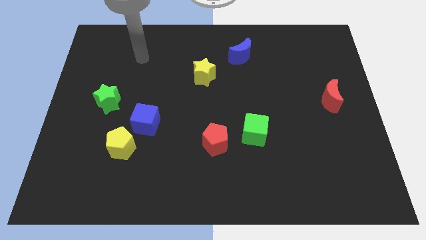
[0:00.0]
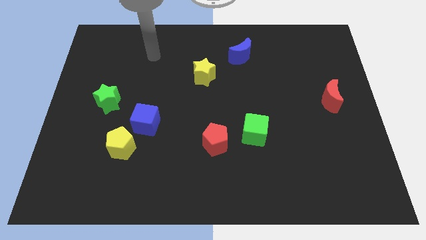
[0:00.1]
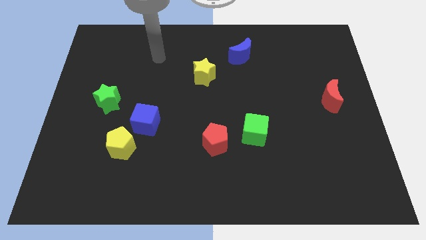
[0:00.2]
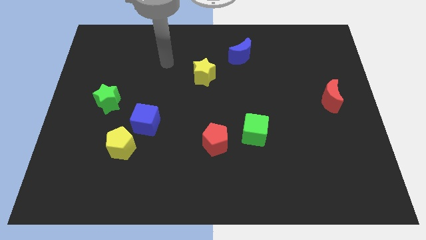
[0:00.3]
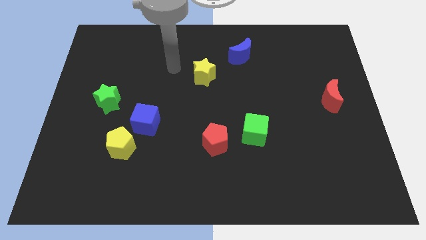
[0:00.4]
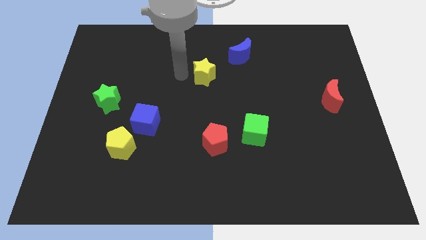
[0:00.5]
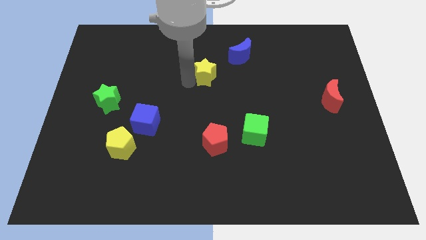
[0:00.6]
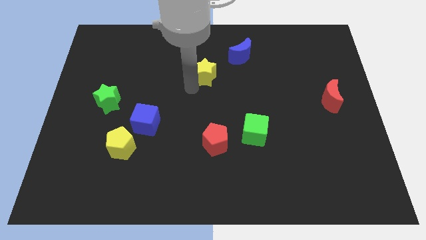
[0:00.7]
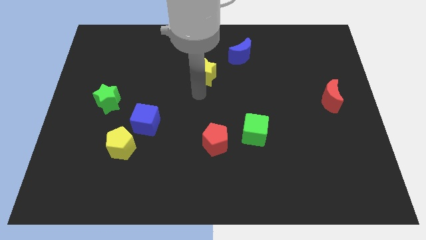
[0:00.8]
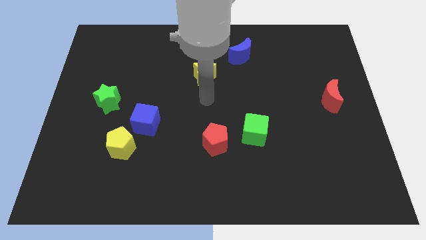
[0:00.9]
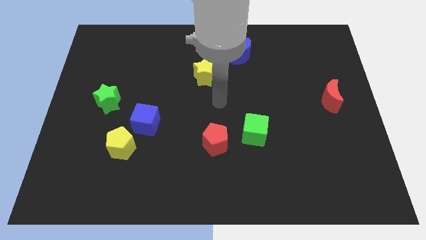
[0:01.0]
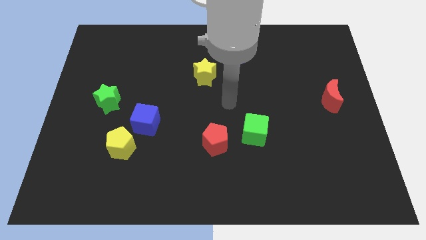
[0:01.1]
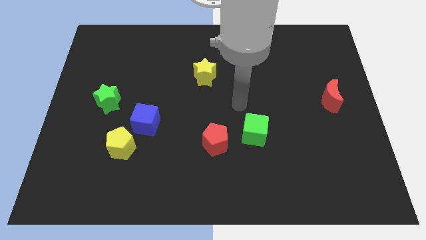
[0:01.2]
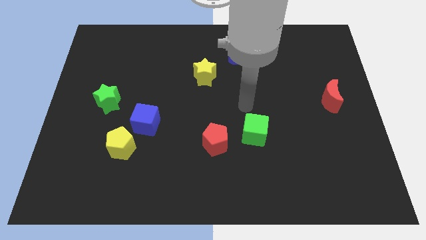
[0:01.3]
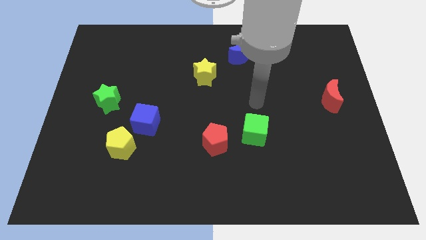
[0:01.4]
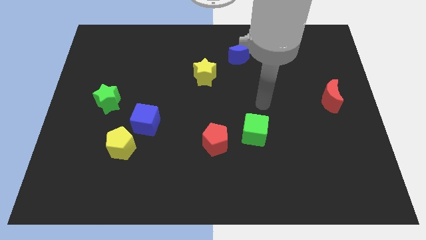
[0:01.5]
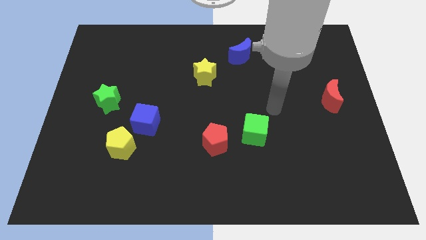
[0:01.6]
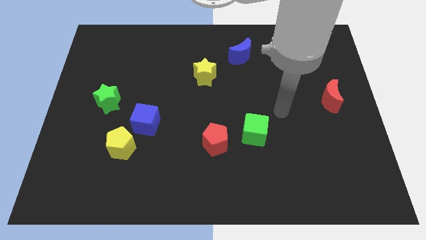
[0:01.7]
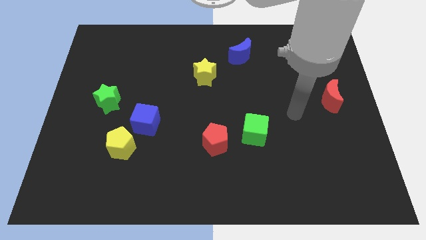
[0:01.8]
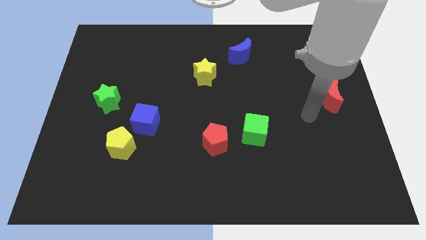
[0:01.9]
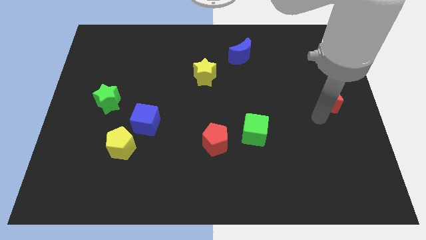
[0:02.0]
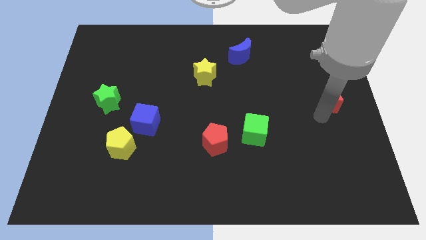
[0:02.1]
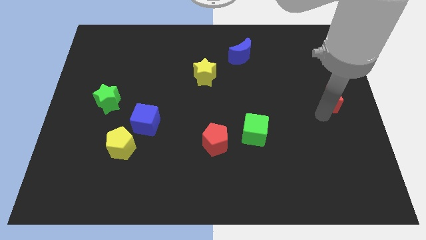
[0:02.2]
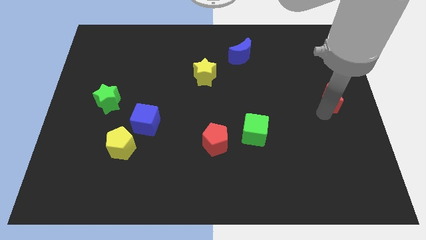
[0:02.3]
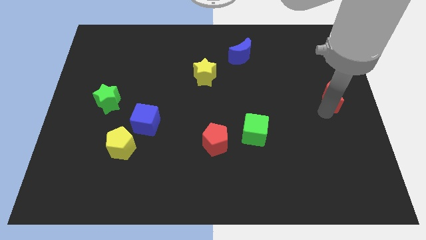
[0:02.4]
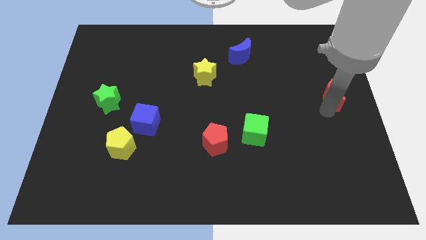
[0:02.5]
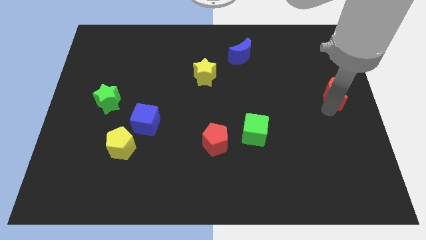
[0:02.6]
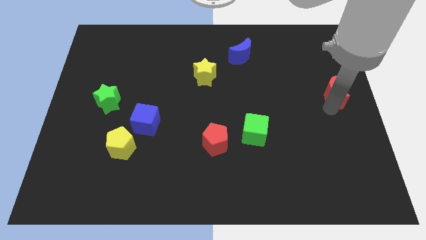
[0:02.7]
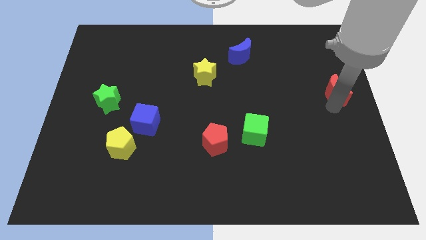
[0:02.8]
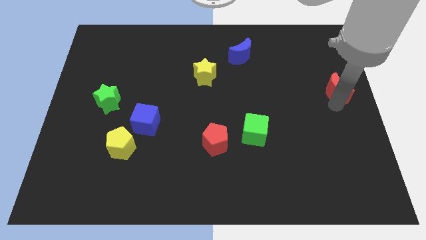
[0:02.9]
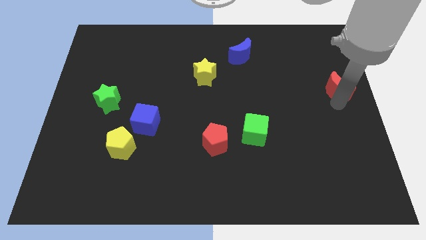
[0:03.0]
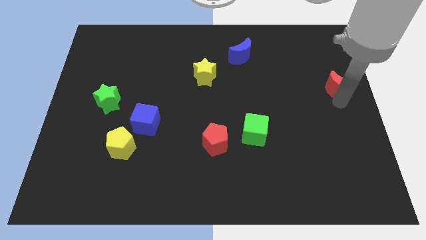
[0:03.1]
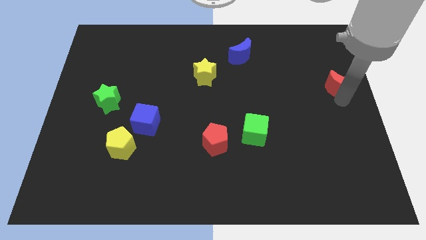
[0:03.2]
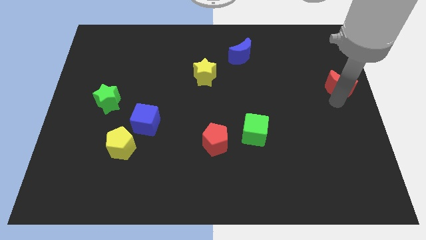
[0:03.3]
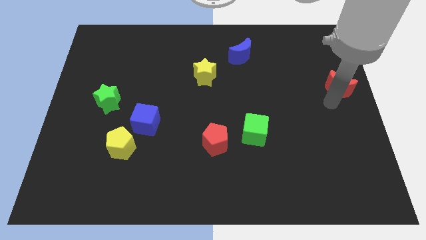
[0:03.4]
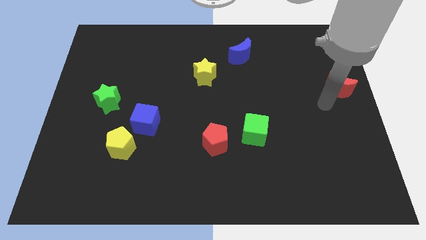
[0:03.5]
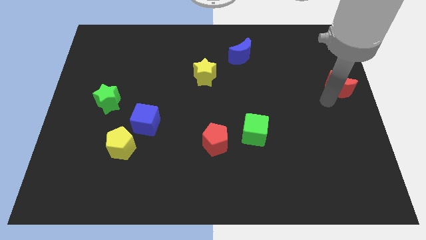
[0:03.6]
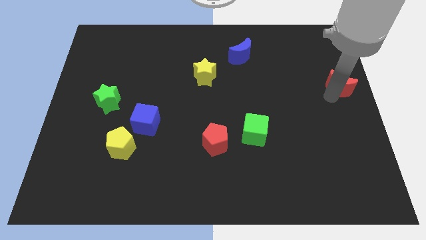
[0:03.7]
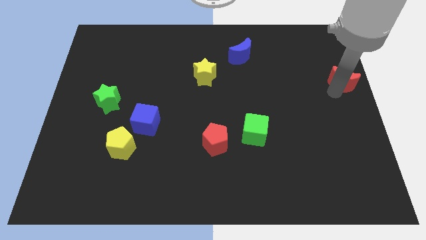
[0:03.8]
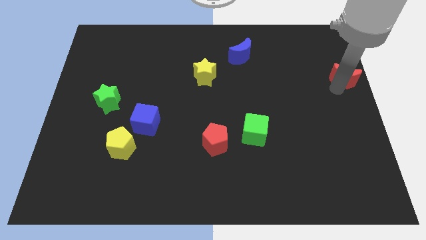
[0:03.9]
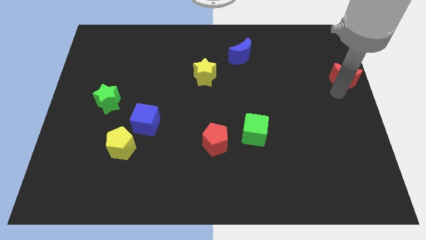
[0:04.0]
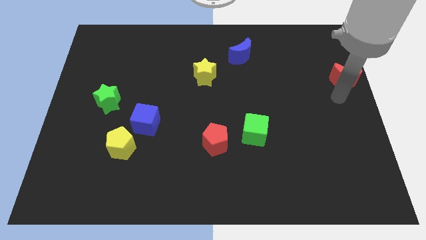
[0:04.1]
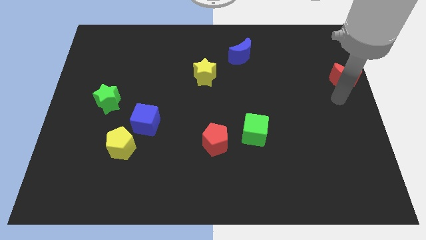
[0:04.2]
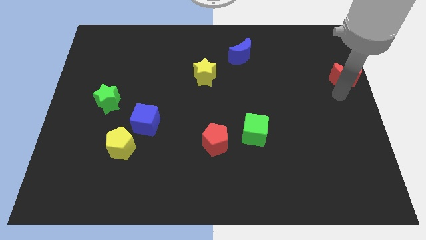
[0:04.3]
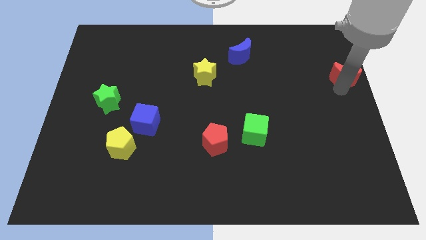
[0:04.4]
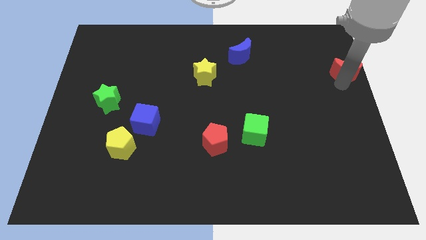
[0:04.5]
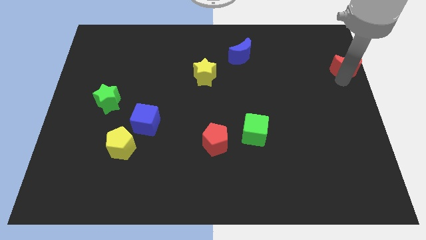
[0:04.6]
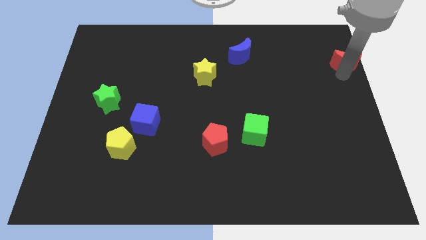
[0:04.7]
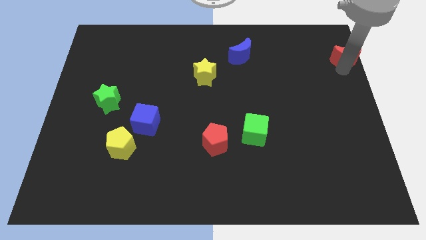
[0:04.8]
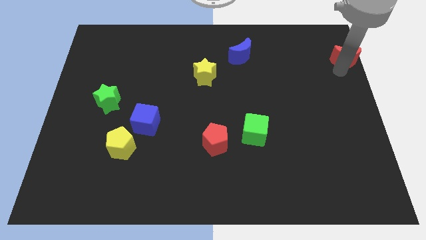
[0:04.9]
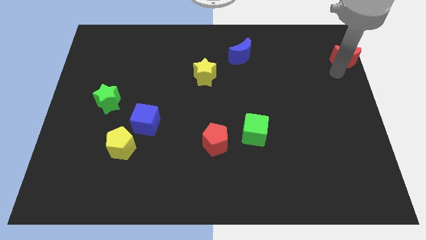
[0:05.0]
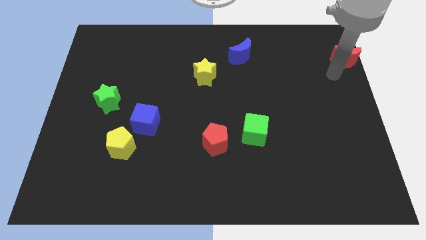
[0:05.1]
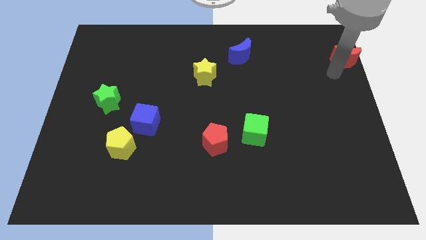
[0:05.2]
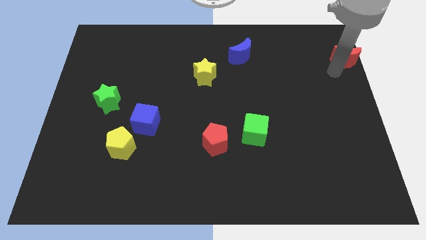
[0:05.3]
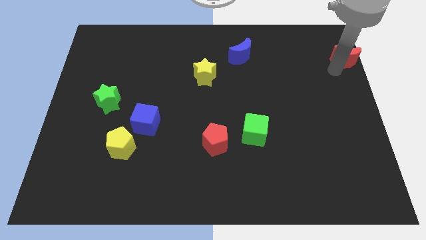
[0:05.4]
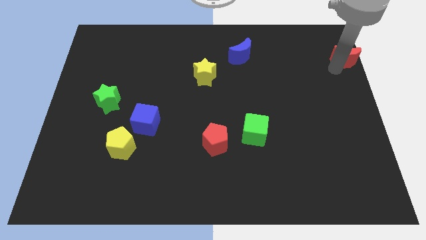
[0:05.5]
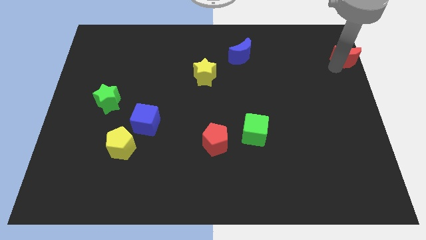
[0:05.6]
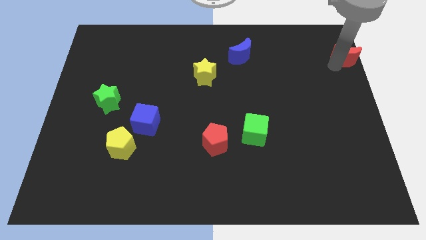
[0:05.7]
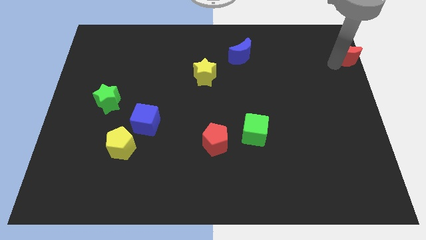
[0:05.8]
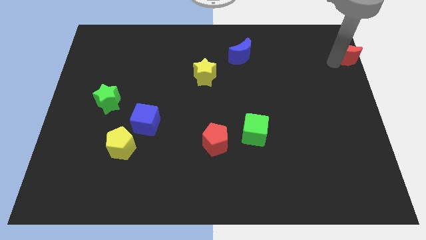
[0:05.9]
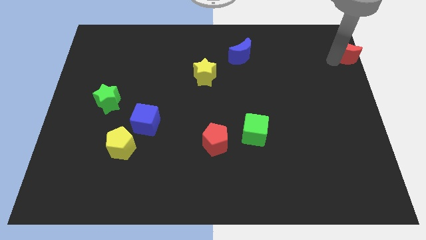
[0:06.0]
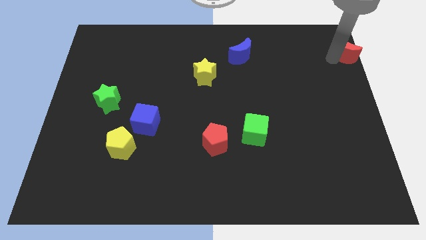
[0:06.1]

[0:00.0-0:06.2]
slide the red moon to the upper right corner

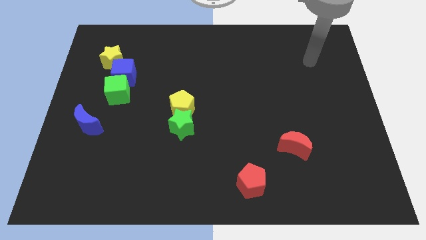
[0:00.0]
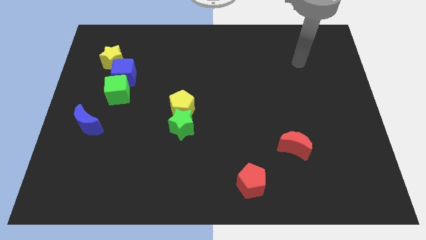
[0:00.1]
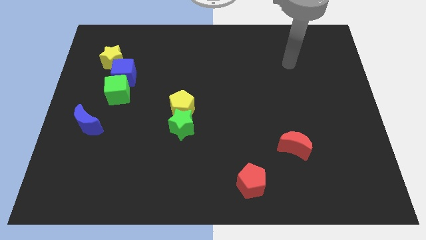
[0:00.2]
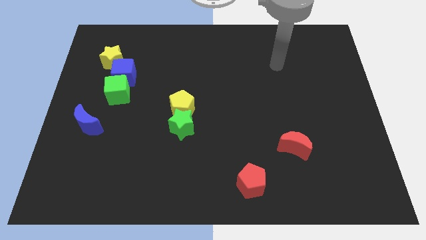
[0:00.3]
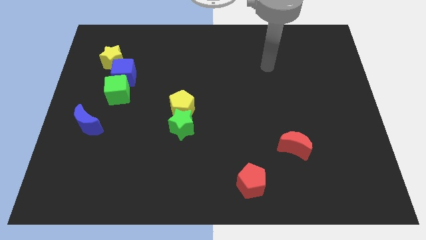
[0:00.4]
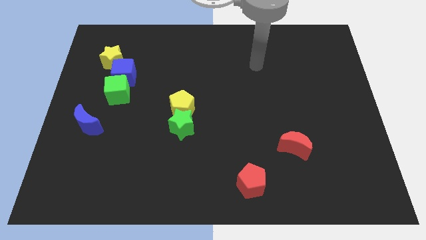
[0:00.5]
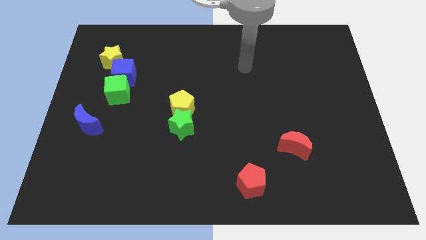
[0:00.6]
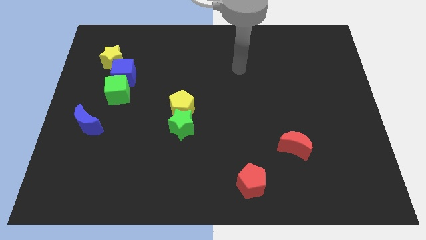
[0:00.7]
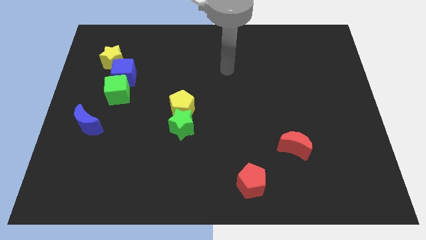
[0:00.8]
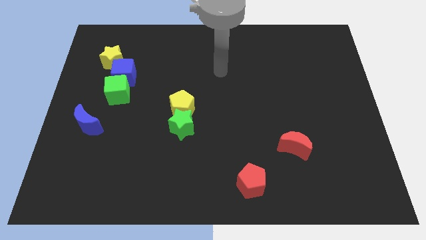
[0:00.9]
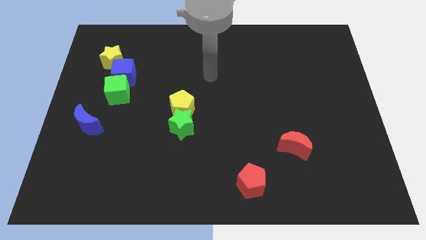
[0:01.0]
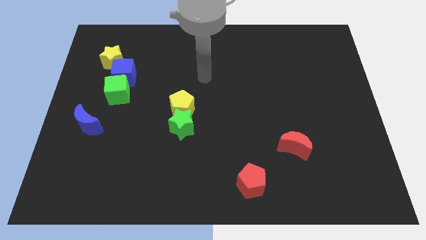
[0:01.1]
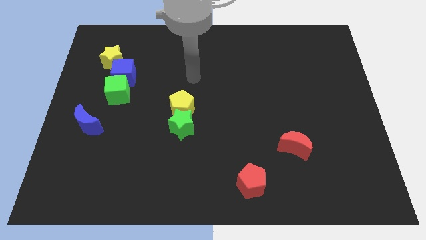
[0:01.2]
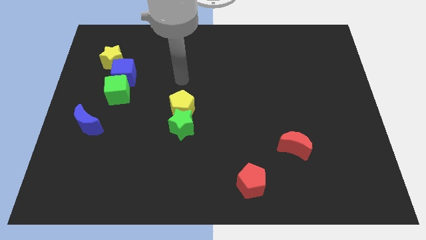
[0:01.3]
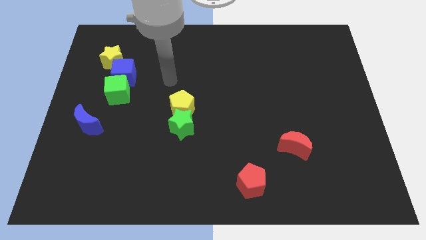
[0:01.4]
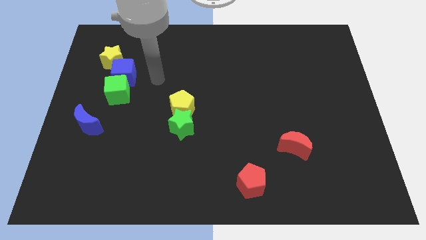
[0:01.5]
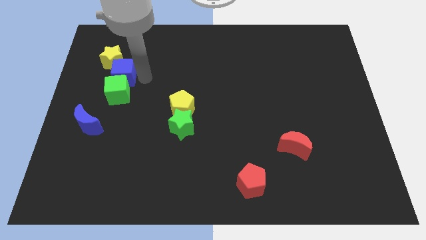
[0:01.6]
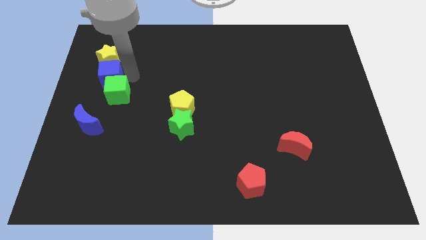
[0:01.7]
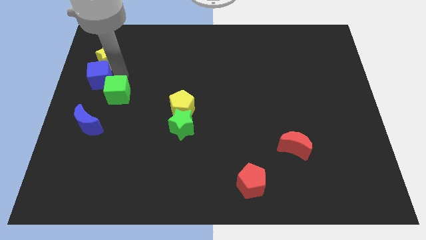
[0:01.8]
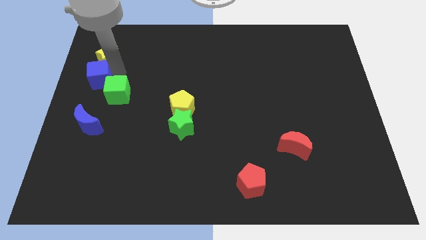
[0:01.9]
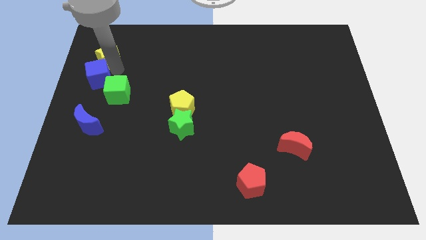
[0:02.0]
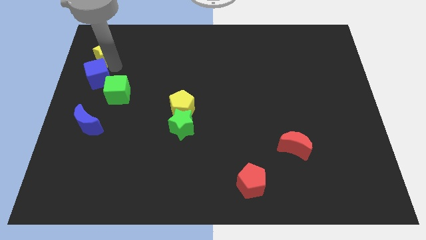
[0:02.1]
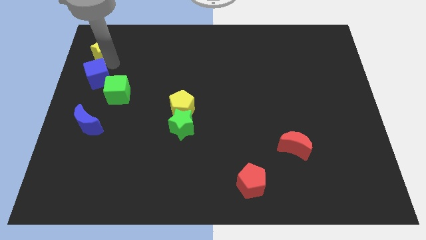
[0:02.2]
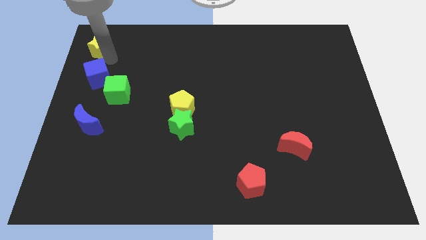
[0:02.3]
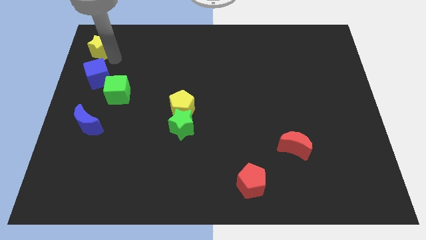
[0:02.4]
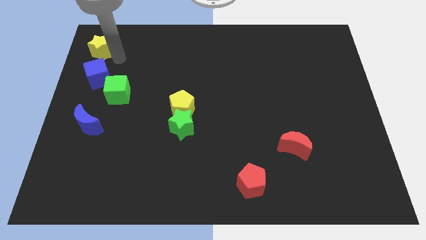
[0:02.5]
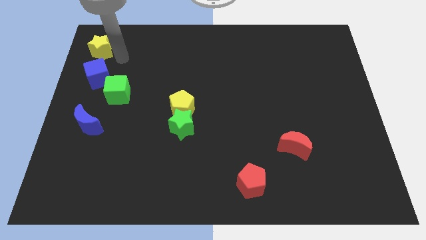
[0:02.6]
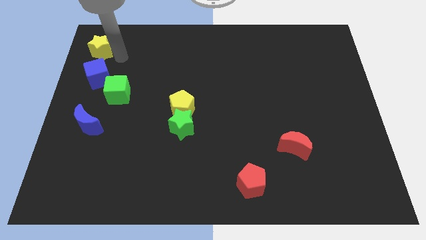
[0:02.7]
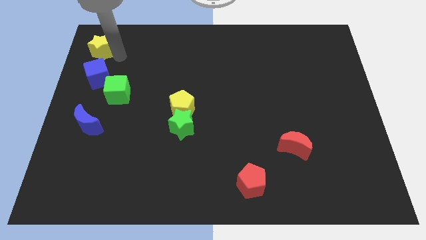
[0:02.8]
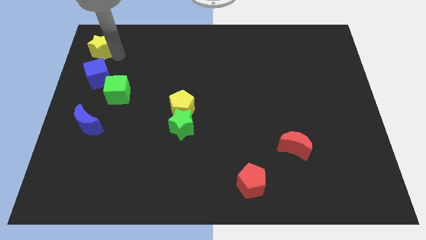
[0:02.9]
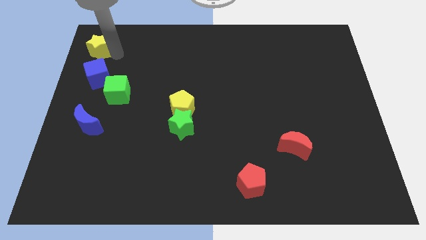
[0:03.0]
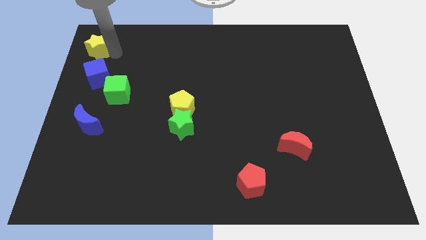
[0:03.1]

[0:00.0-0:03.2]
put the yellow star to the top left
